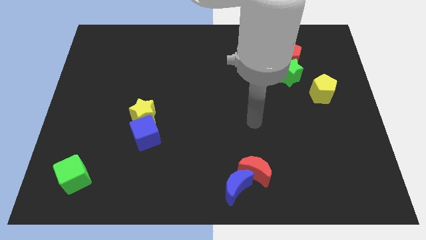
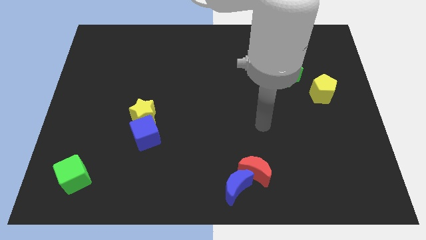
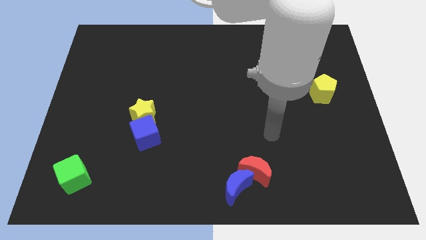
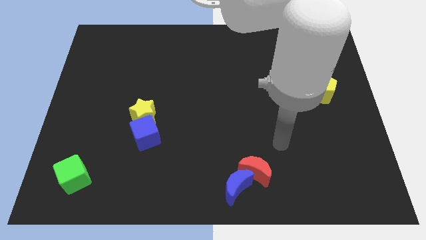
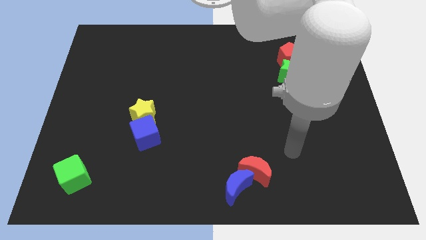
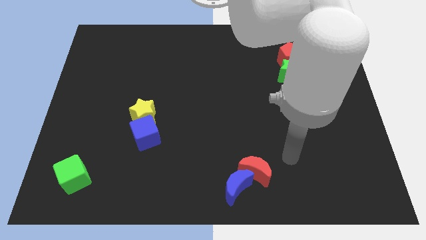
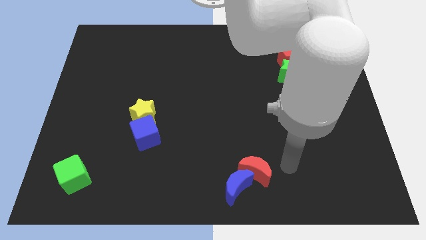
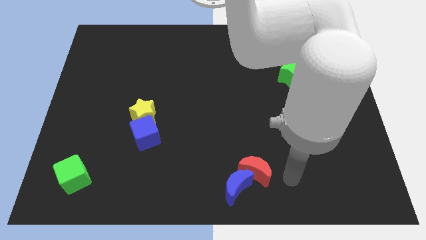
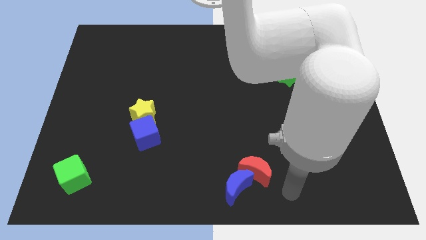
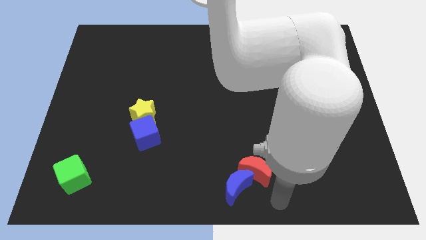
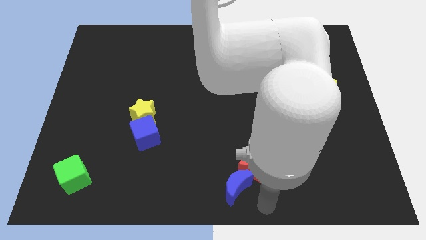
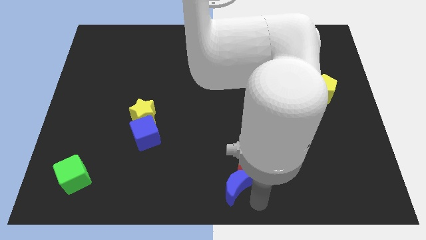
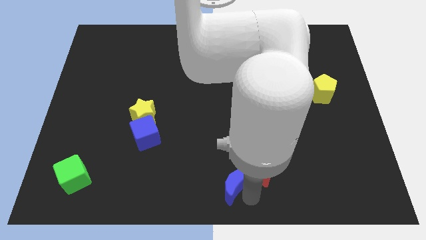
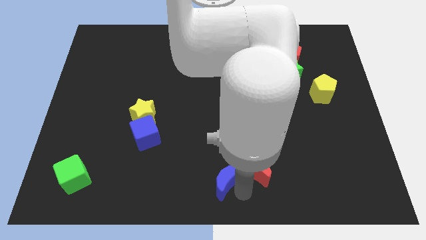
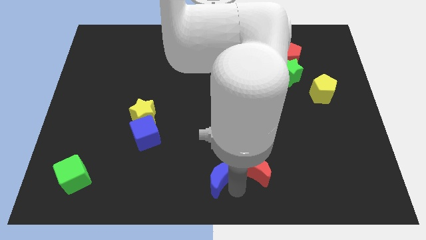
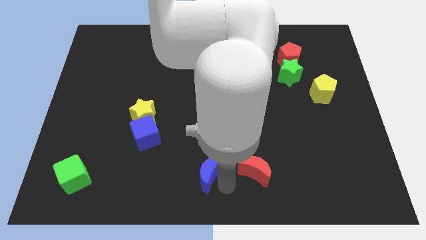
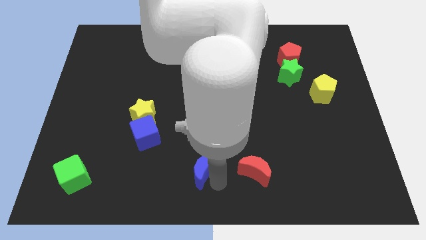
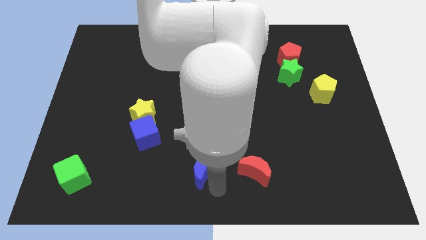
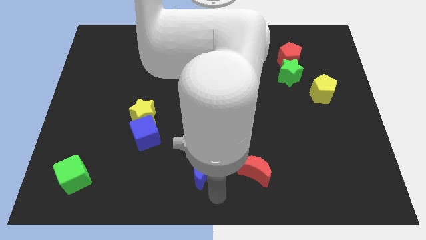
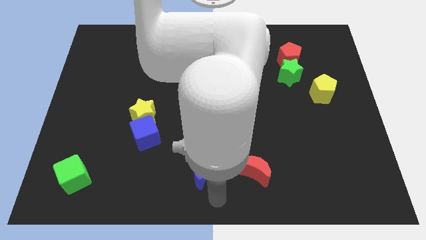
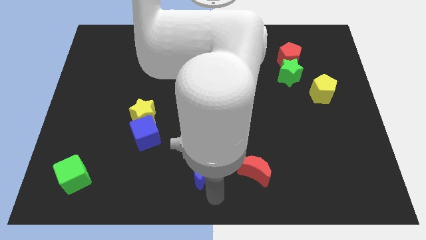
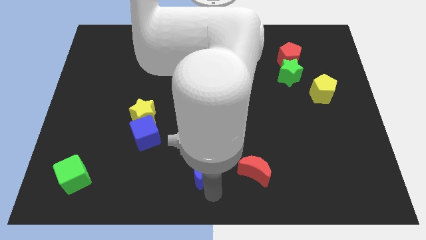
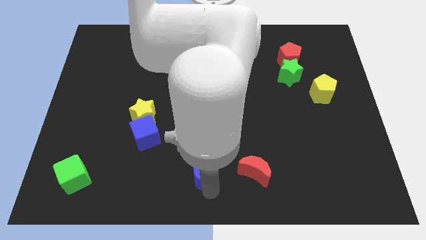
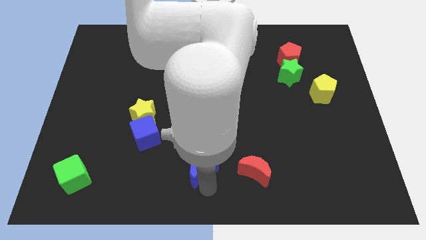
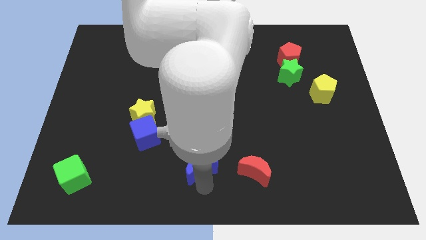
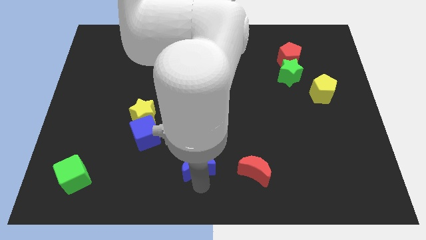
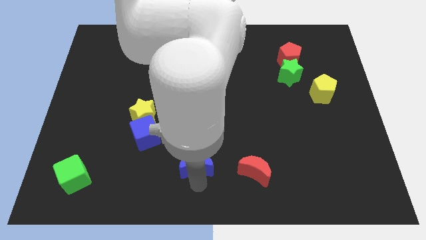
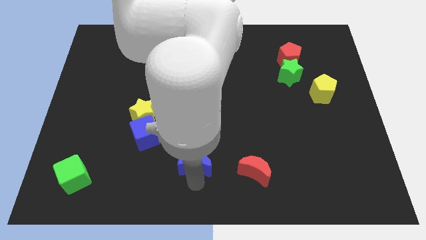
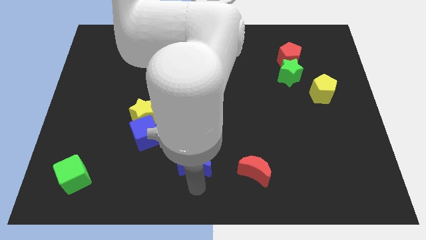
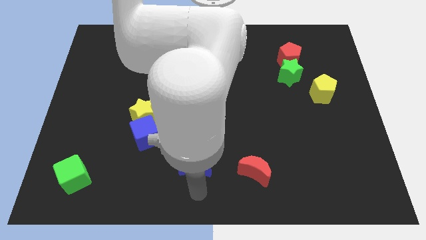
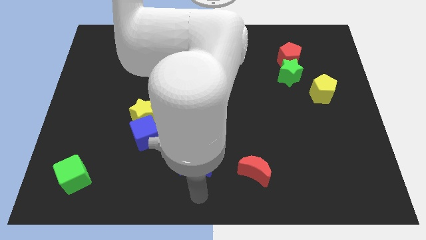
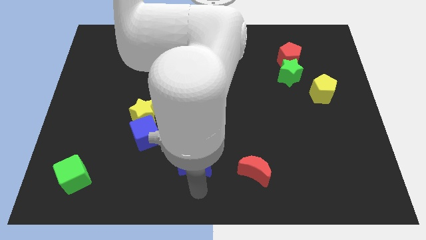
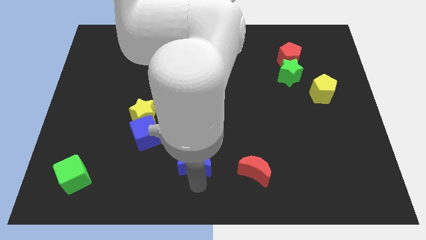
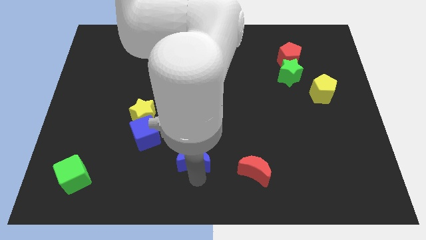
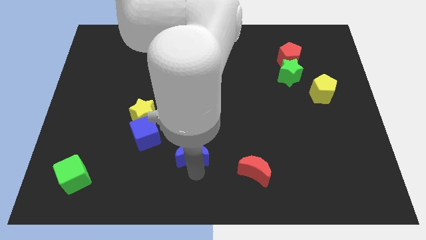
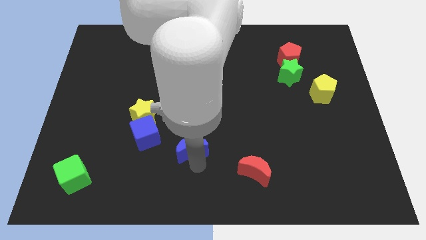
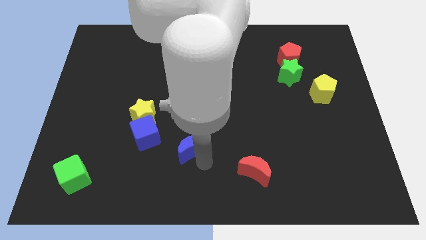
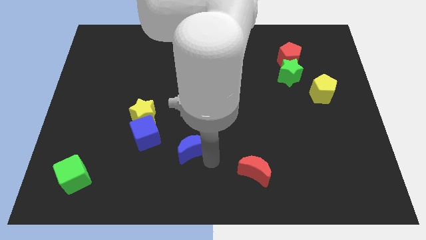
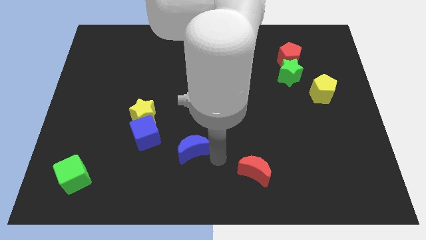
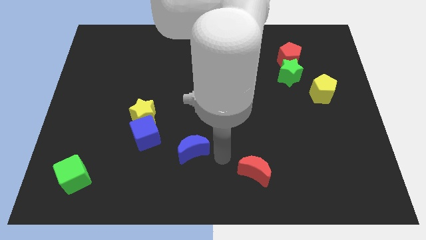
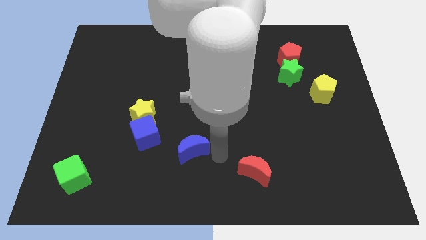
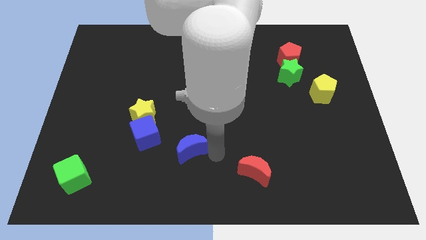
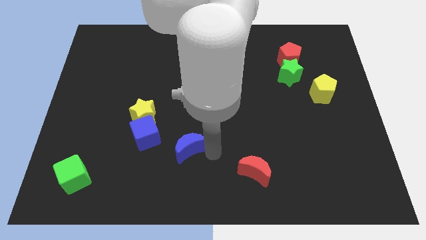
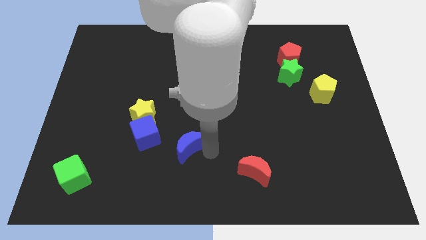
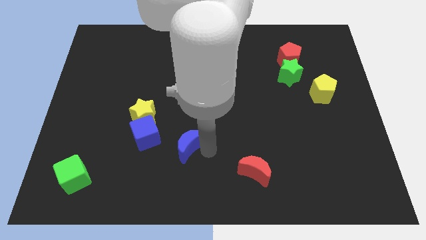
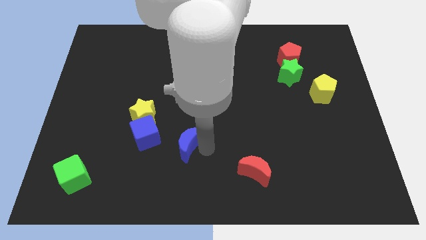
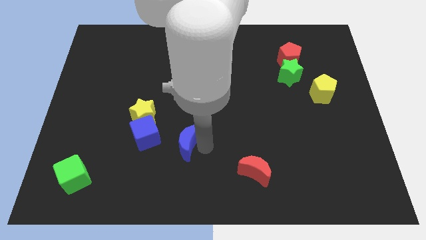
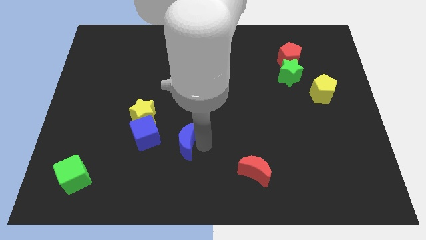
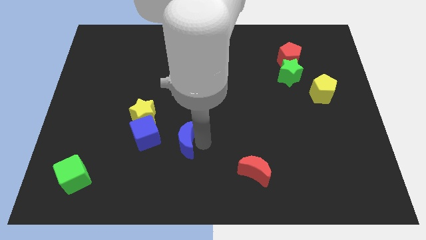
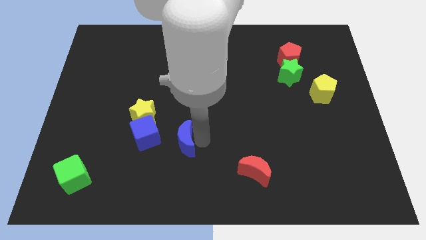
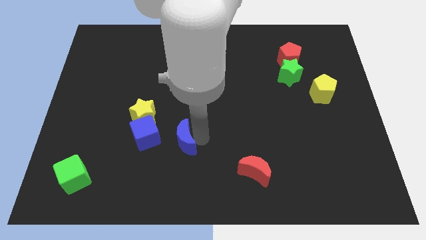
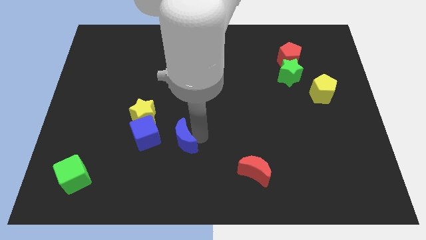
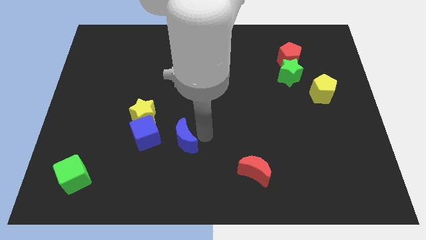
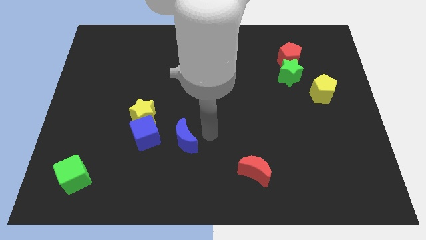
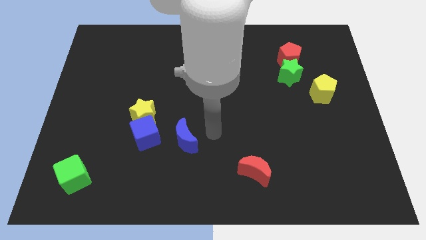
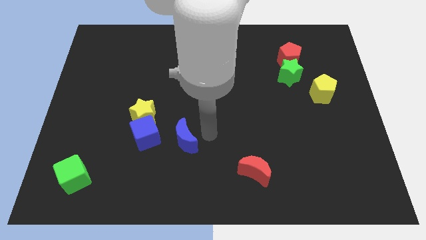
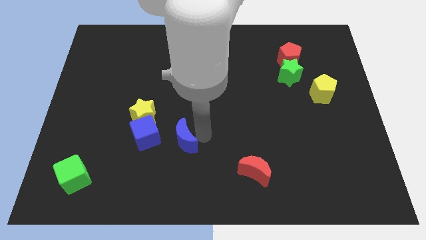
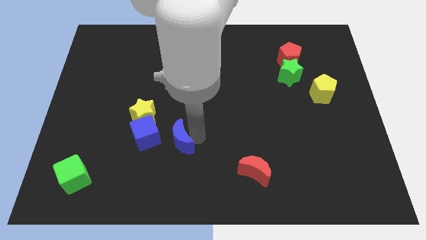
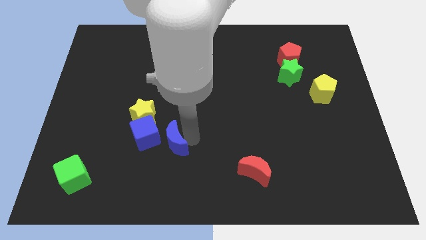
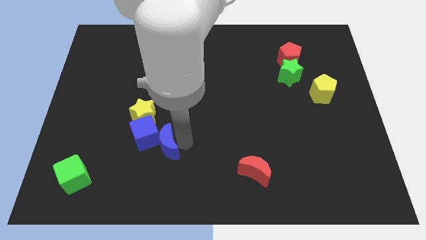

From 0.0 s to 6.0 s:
push the blue moon next to the blue cube

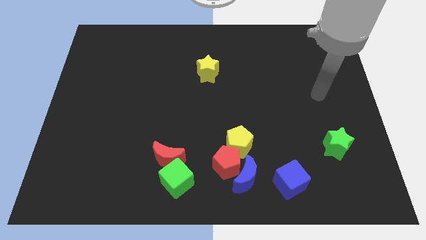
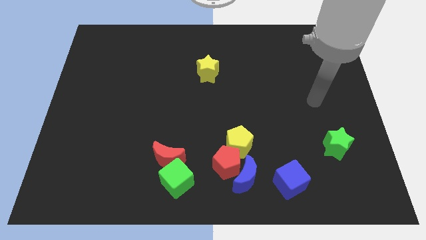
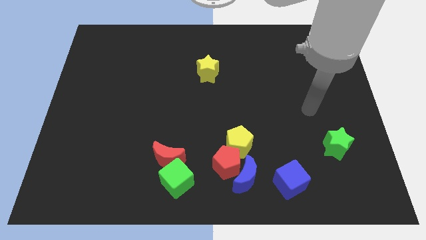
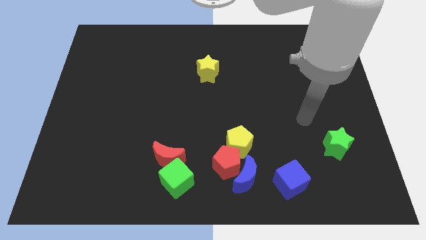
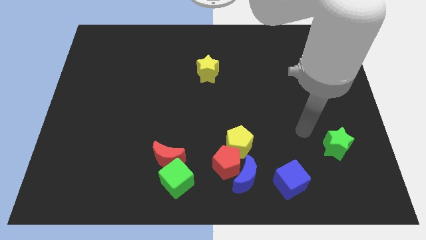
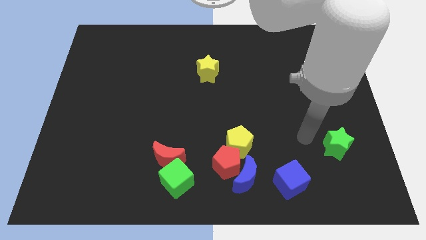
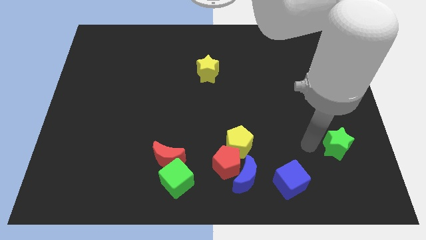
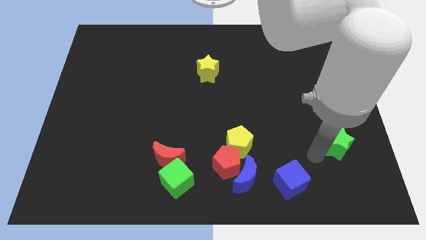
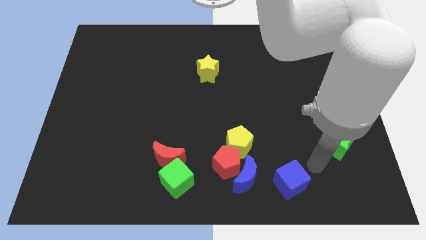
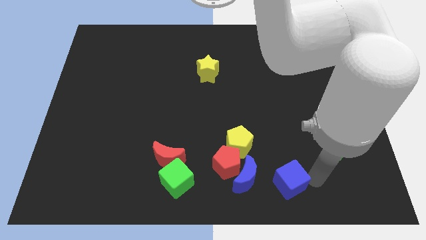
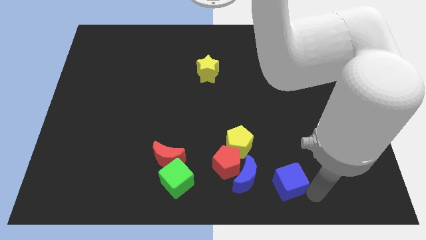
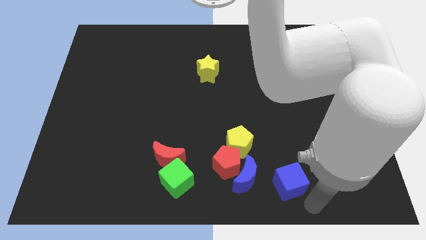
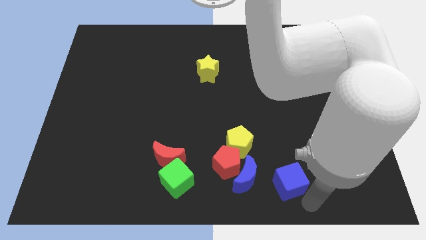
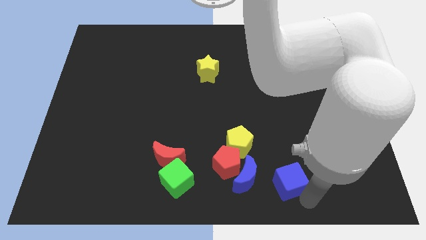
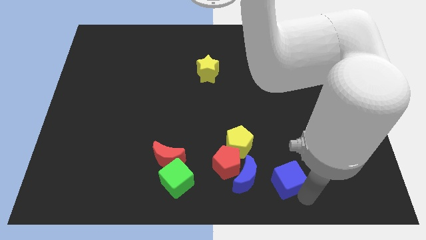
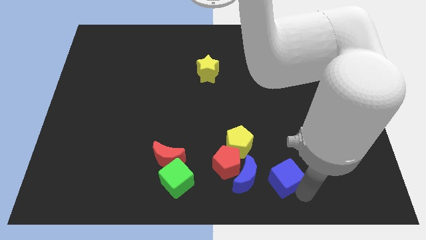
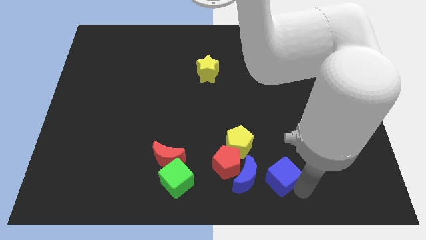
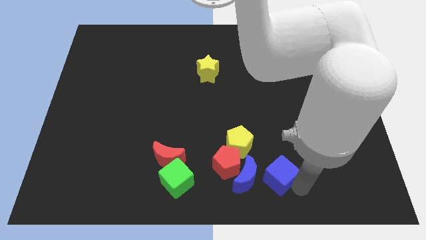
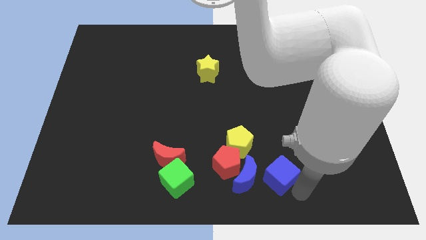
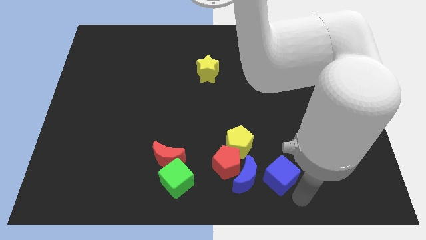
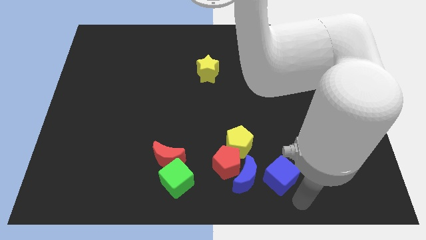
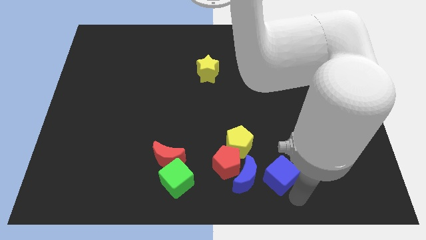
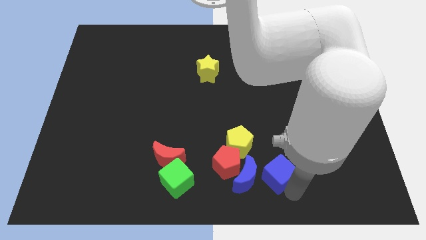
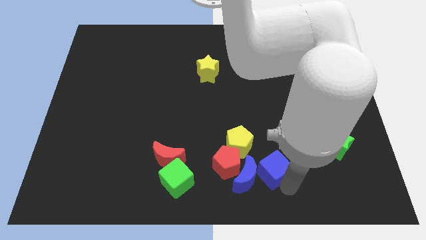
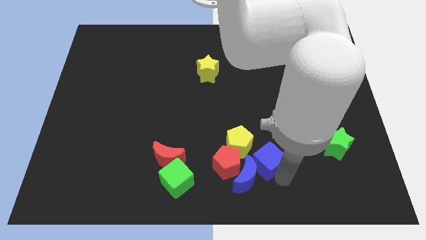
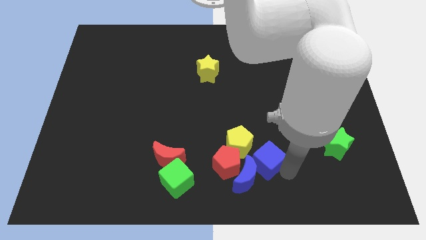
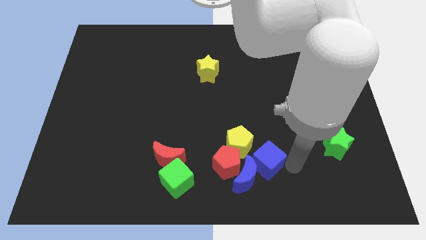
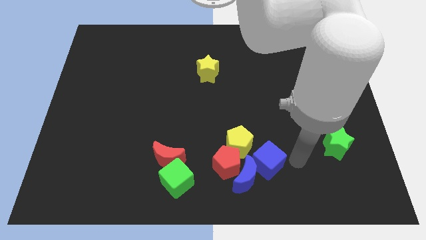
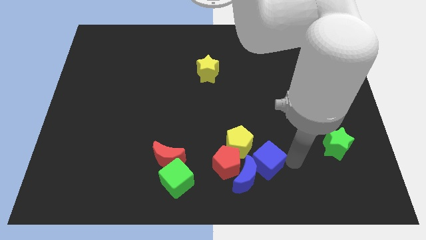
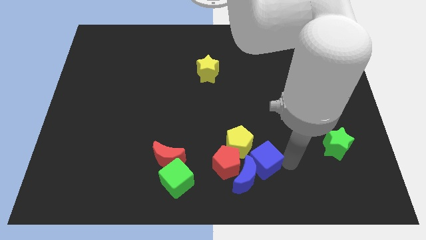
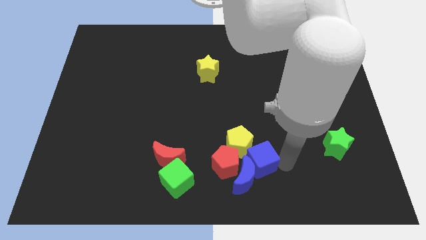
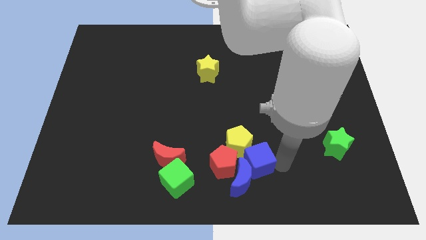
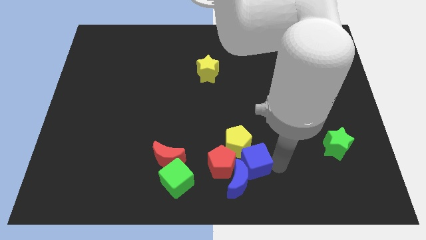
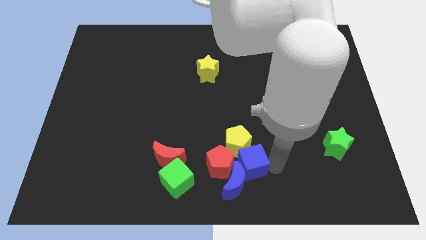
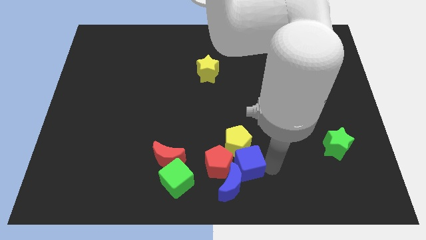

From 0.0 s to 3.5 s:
move the blue cube close to the red pentagon
